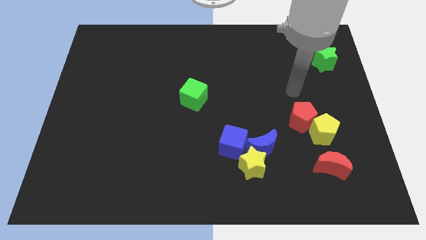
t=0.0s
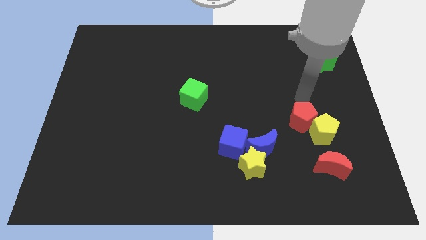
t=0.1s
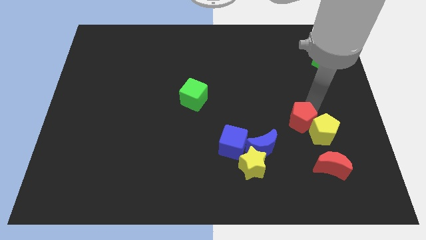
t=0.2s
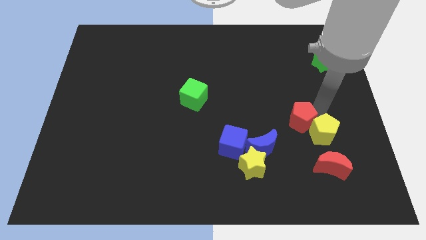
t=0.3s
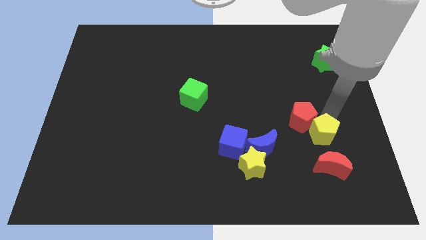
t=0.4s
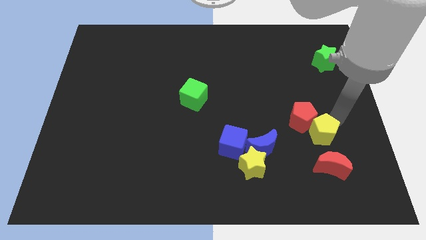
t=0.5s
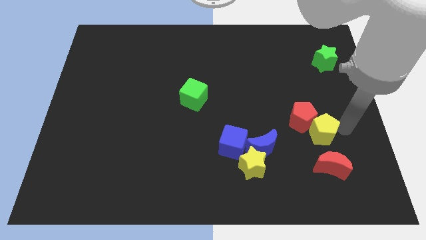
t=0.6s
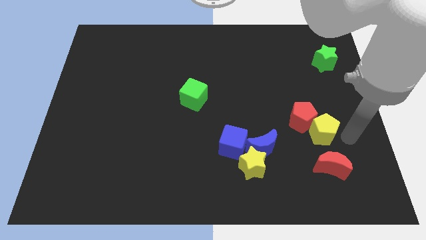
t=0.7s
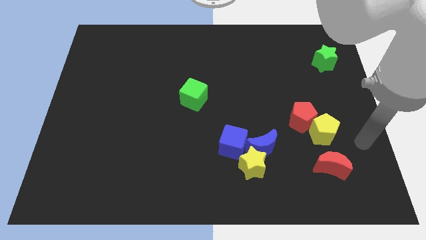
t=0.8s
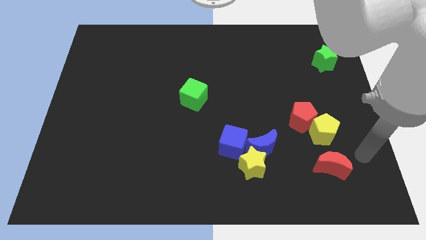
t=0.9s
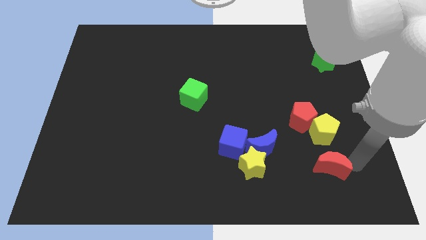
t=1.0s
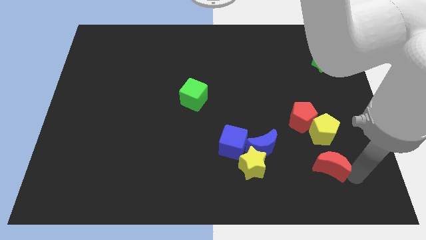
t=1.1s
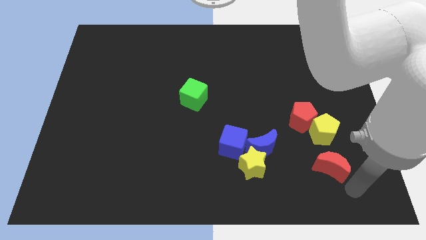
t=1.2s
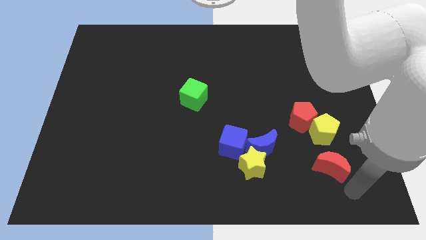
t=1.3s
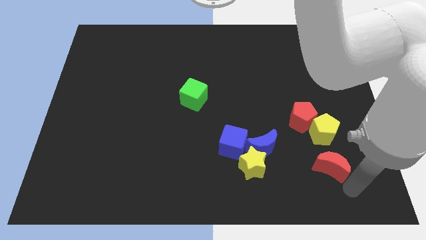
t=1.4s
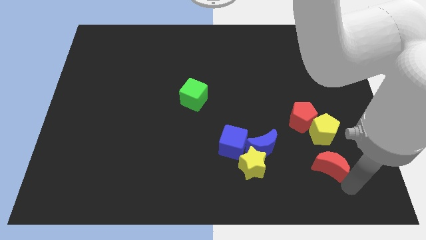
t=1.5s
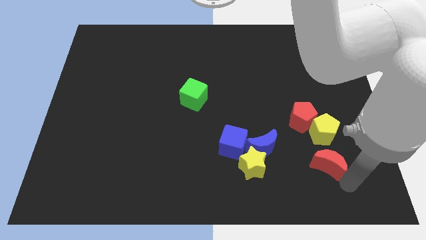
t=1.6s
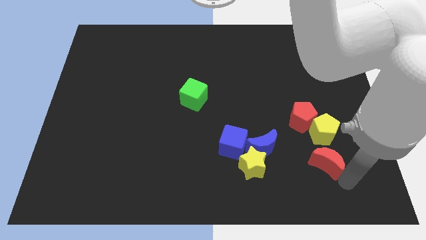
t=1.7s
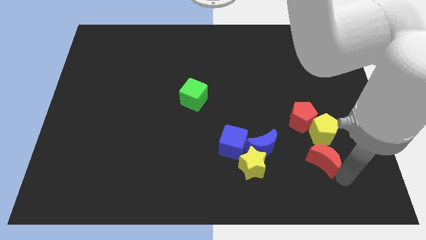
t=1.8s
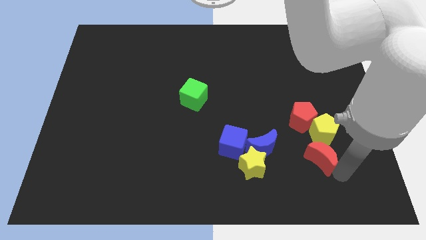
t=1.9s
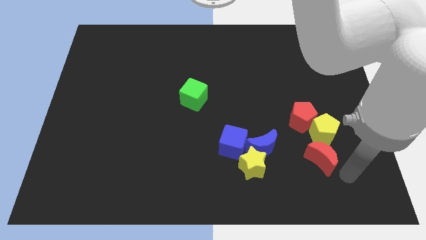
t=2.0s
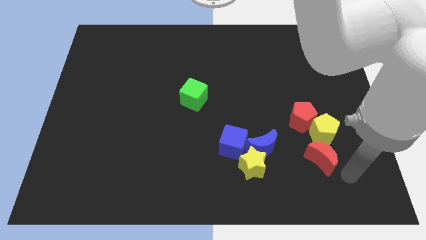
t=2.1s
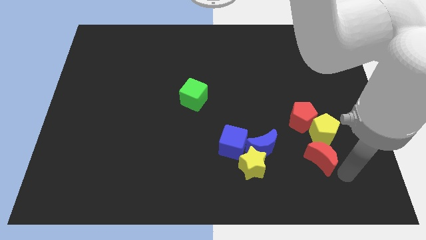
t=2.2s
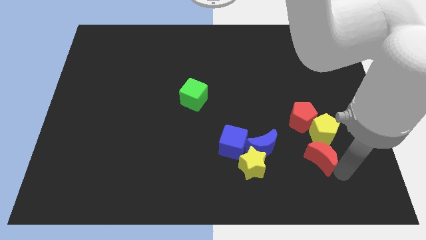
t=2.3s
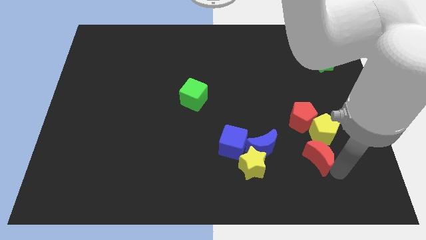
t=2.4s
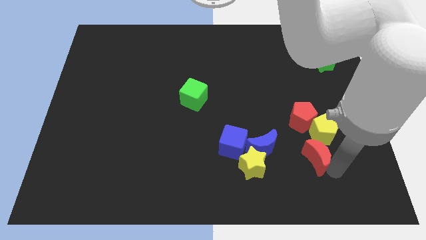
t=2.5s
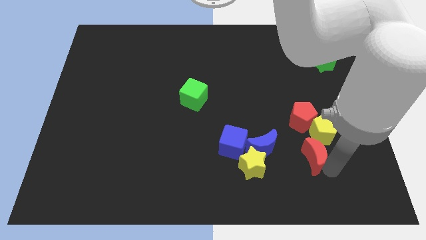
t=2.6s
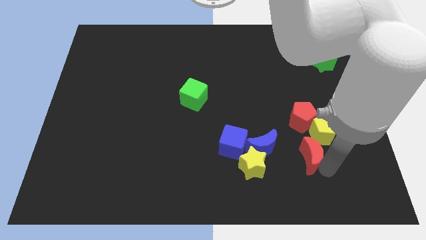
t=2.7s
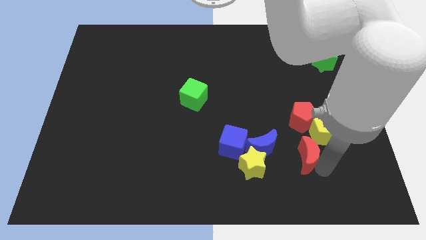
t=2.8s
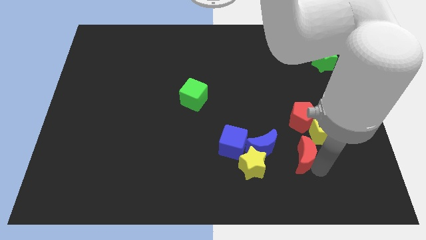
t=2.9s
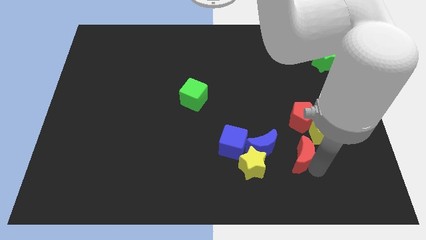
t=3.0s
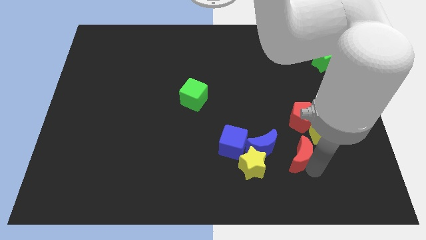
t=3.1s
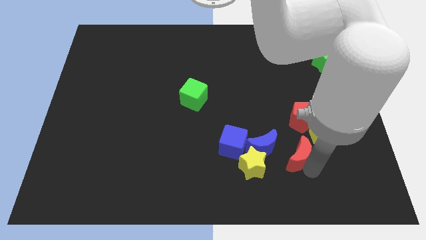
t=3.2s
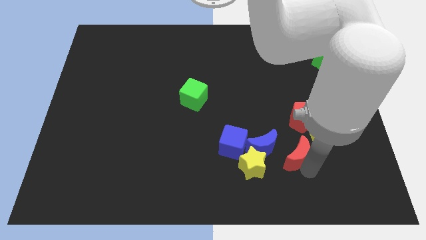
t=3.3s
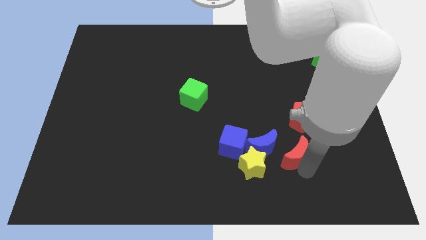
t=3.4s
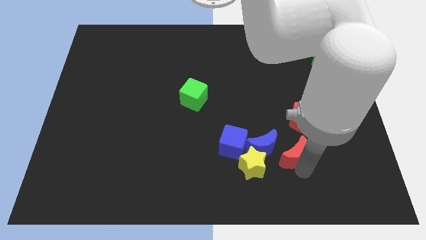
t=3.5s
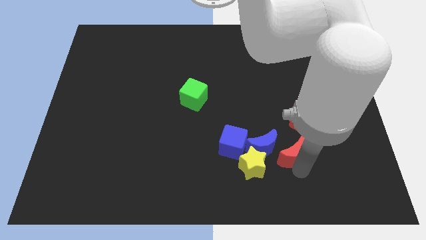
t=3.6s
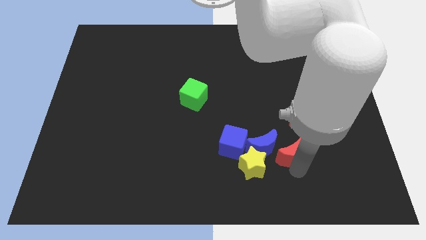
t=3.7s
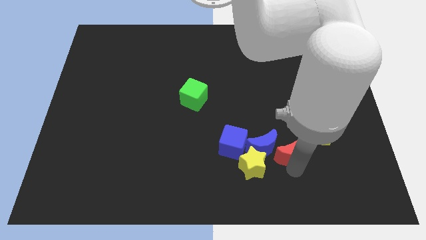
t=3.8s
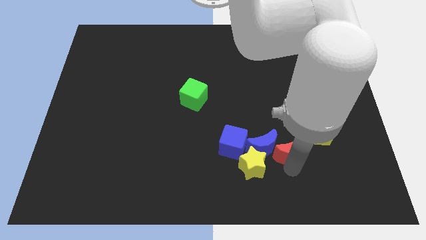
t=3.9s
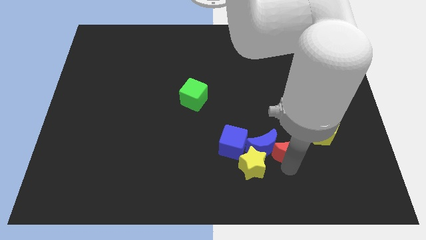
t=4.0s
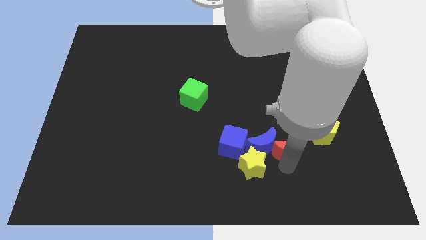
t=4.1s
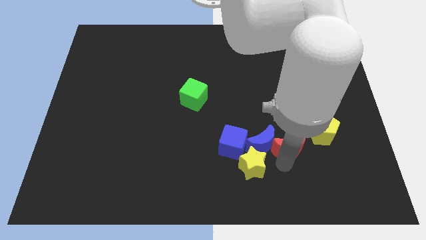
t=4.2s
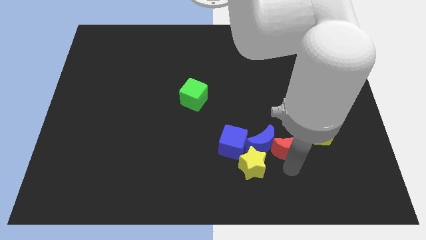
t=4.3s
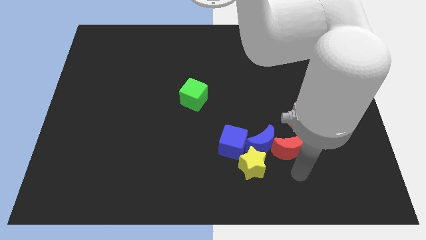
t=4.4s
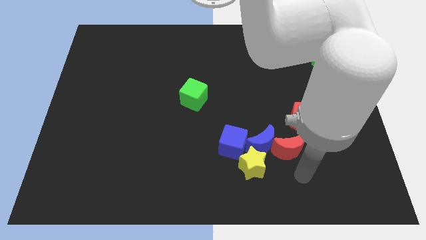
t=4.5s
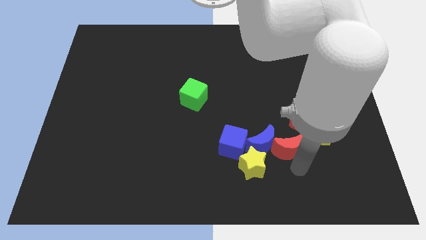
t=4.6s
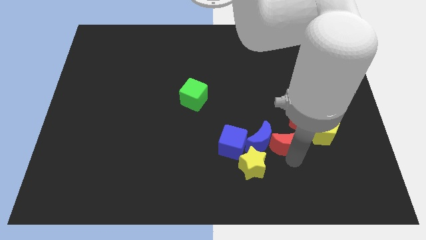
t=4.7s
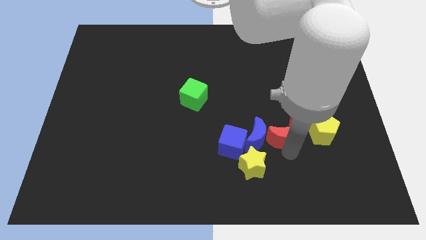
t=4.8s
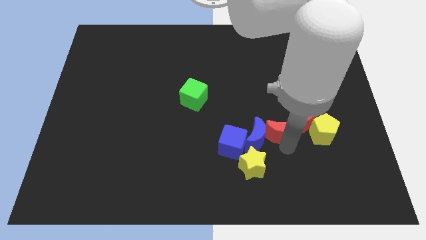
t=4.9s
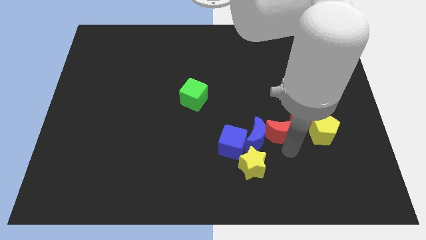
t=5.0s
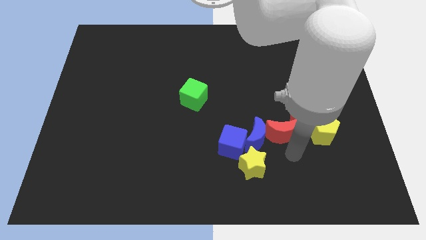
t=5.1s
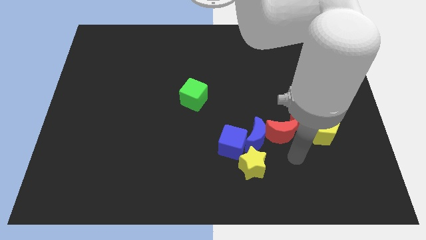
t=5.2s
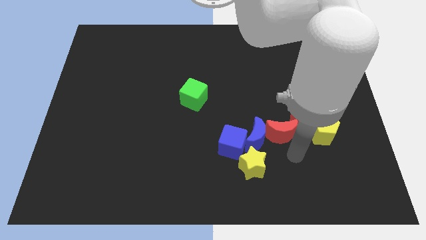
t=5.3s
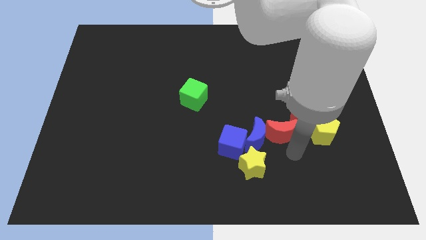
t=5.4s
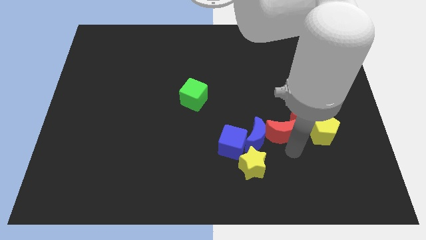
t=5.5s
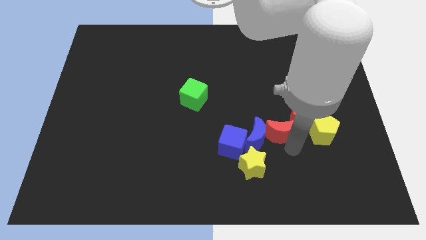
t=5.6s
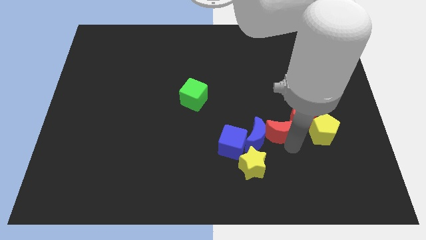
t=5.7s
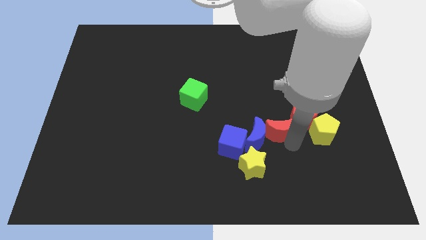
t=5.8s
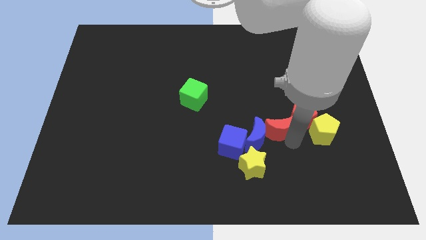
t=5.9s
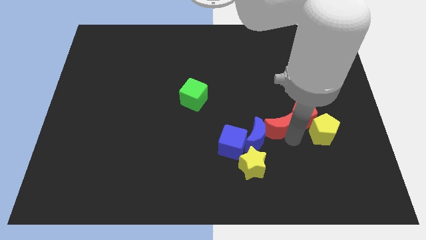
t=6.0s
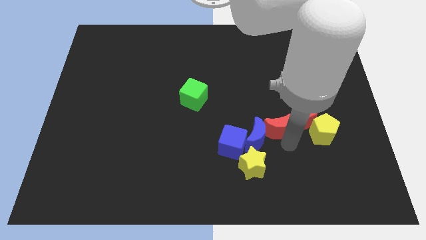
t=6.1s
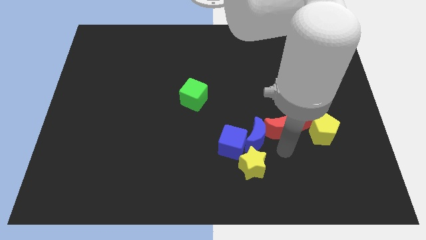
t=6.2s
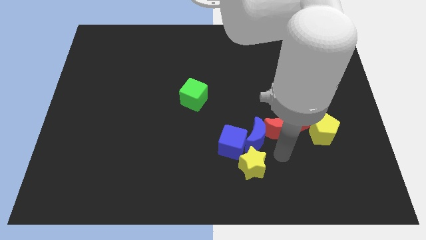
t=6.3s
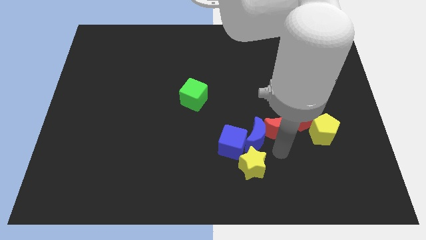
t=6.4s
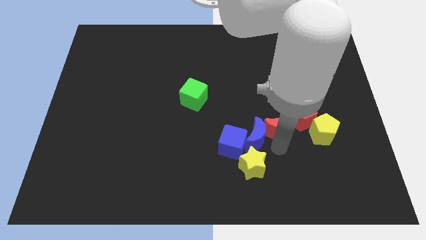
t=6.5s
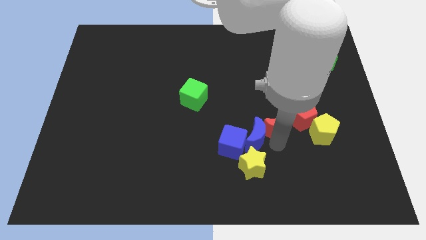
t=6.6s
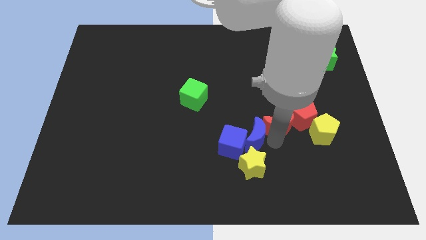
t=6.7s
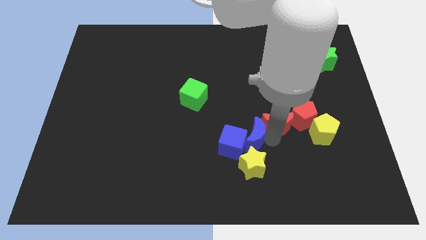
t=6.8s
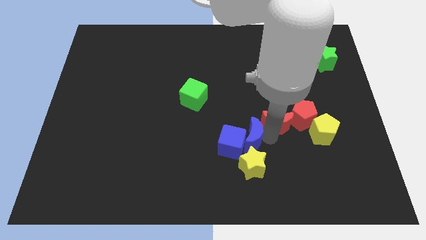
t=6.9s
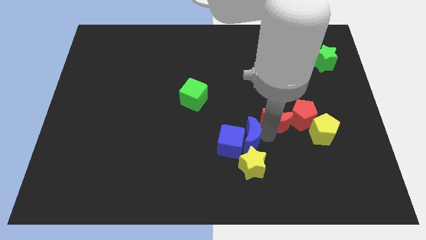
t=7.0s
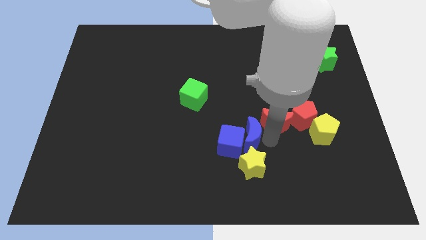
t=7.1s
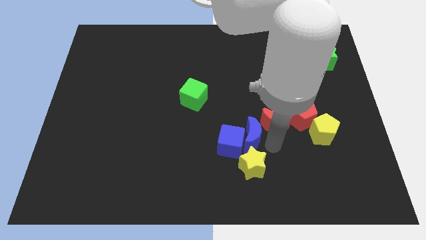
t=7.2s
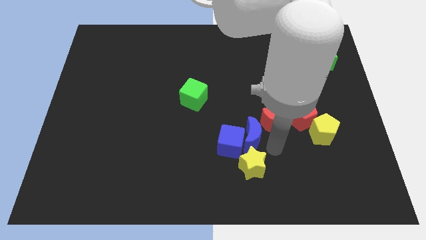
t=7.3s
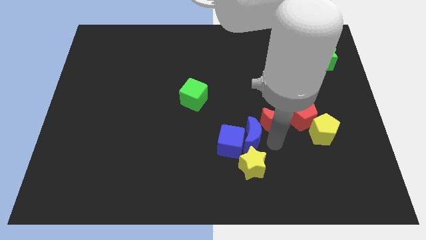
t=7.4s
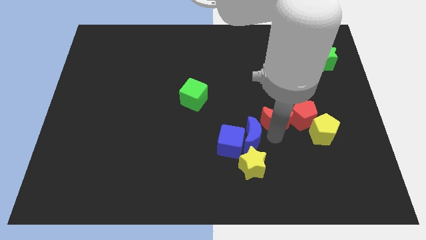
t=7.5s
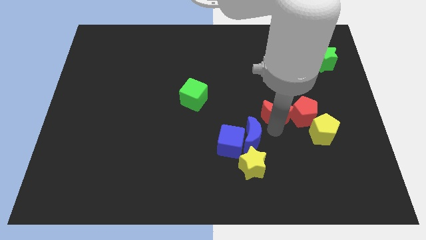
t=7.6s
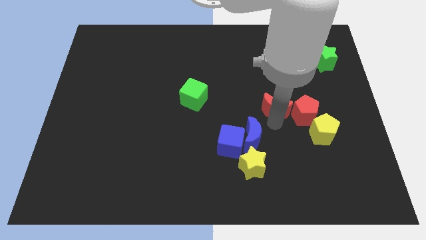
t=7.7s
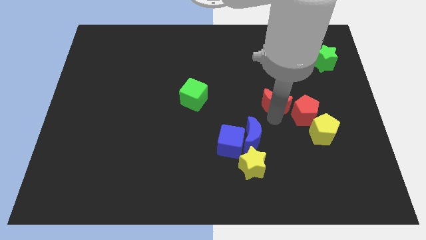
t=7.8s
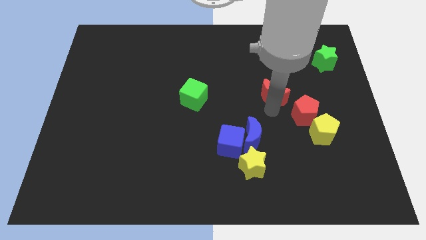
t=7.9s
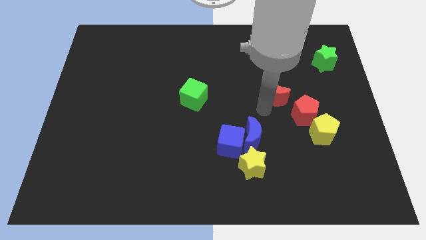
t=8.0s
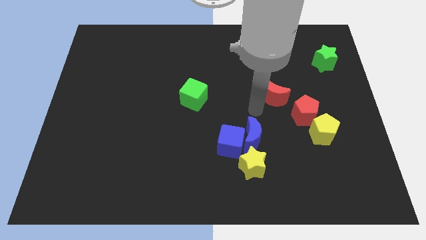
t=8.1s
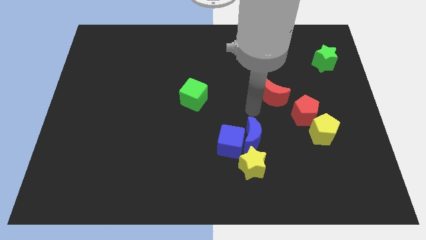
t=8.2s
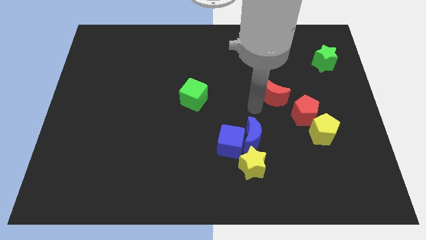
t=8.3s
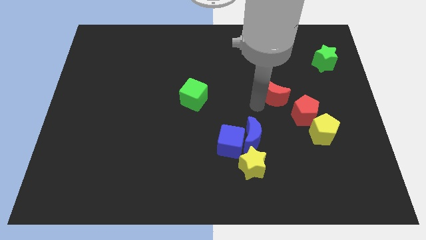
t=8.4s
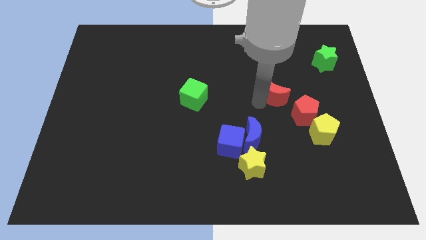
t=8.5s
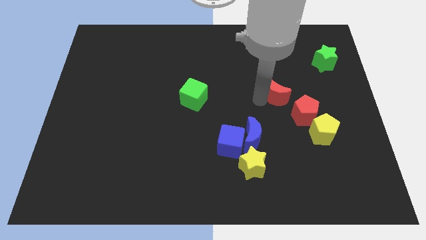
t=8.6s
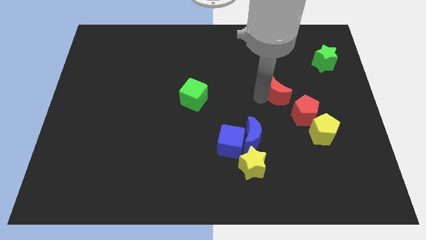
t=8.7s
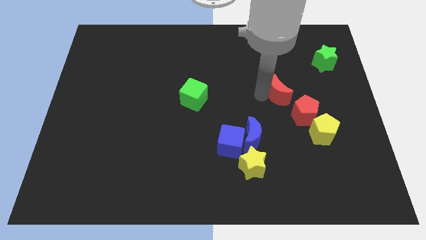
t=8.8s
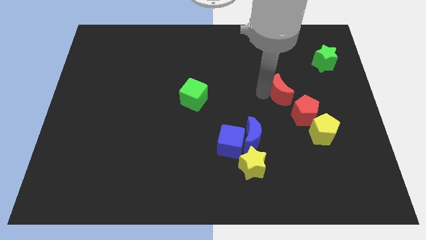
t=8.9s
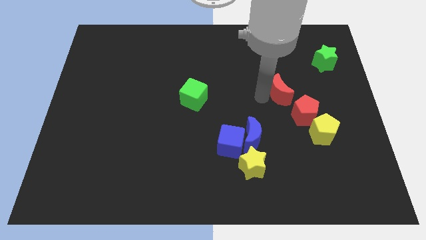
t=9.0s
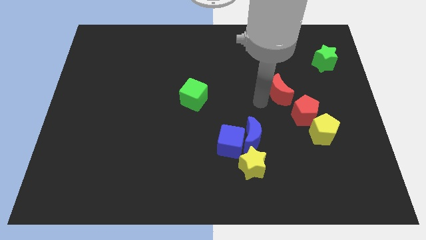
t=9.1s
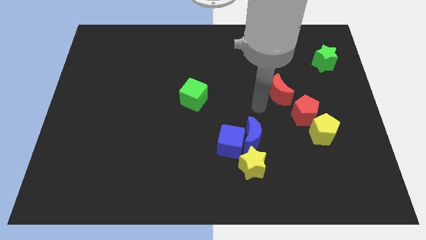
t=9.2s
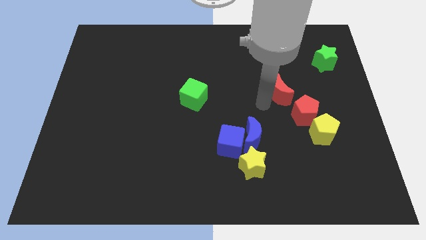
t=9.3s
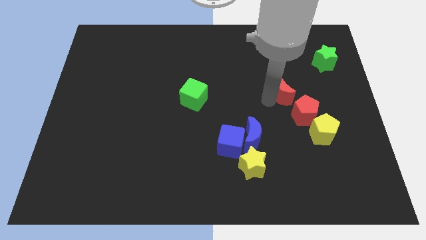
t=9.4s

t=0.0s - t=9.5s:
put the red moon to the top side of the red pentagon
